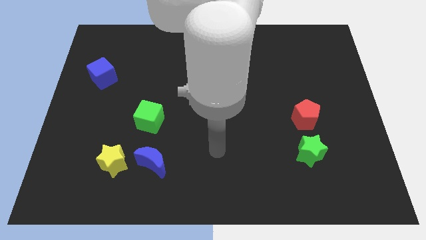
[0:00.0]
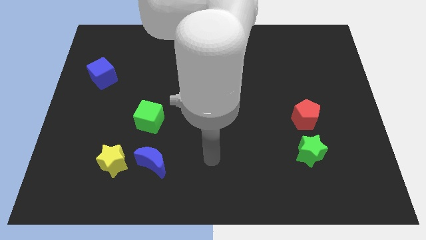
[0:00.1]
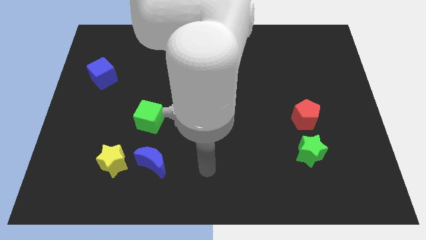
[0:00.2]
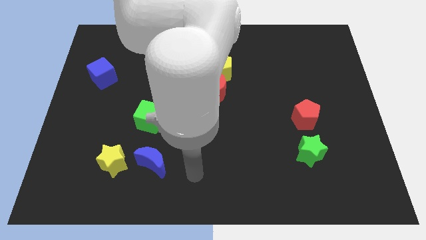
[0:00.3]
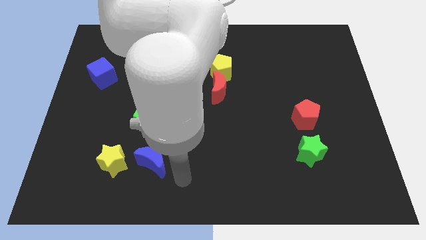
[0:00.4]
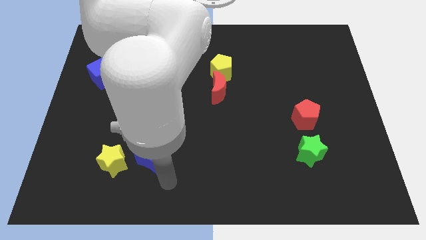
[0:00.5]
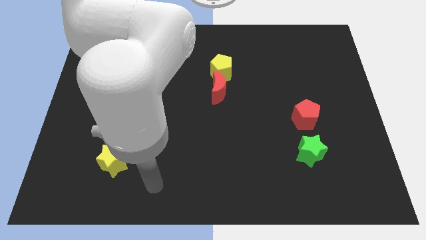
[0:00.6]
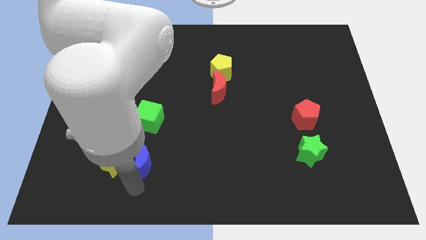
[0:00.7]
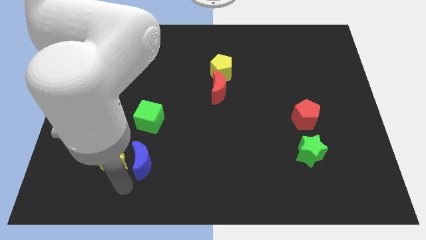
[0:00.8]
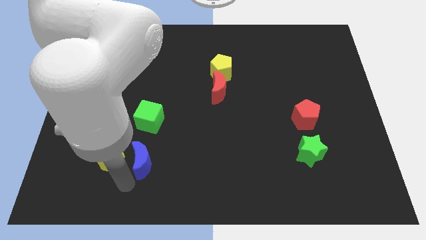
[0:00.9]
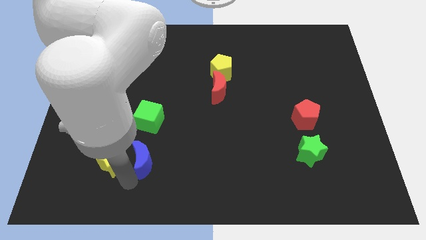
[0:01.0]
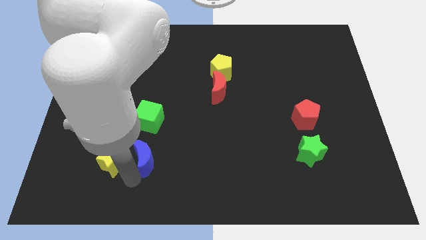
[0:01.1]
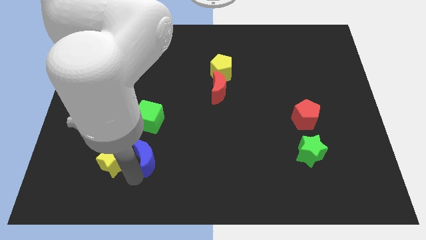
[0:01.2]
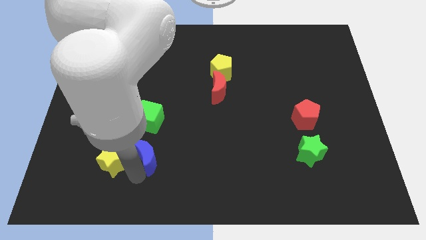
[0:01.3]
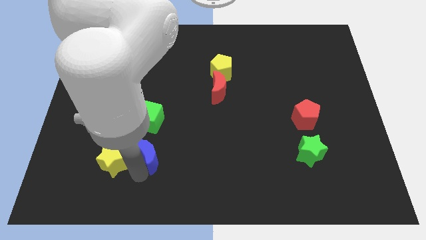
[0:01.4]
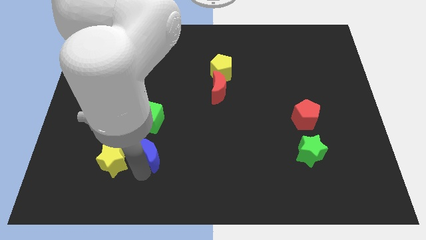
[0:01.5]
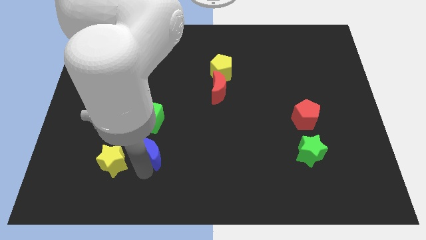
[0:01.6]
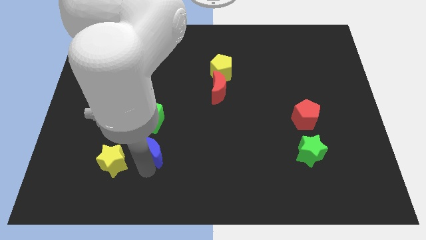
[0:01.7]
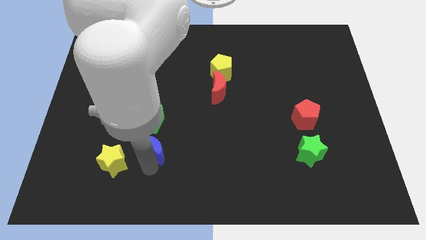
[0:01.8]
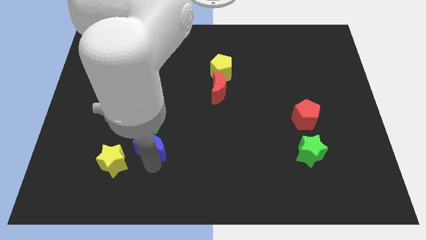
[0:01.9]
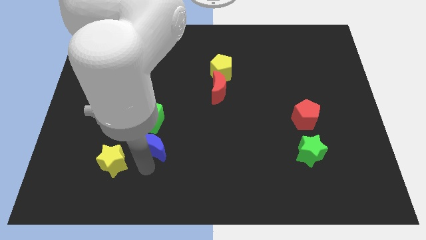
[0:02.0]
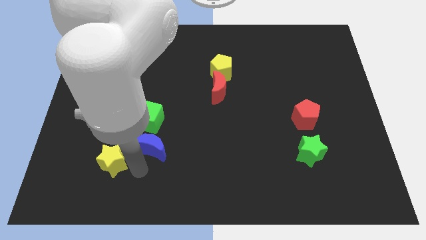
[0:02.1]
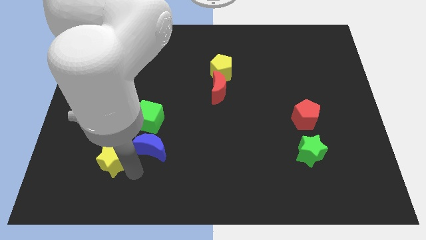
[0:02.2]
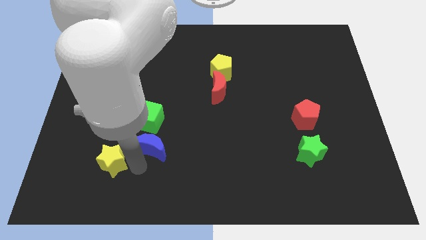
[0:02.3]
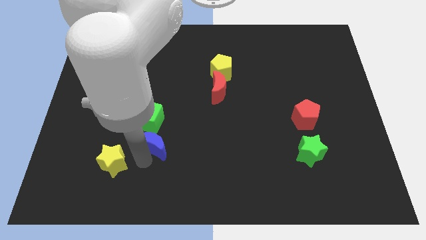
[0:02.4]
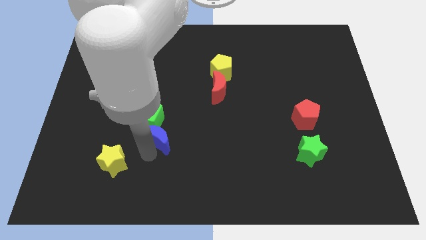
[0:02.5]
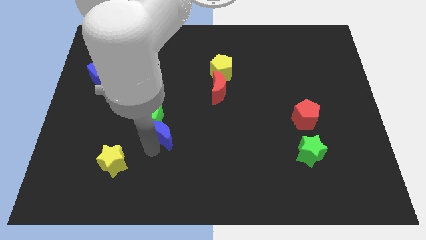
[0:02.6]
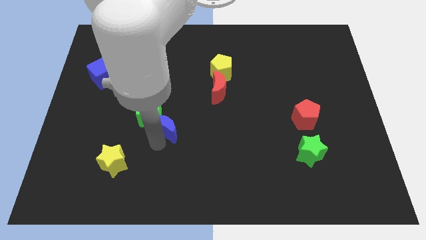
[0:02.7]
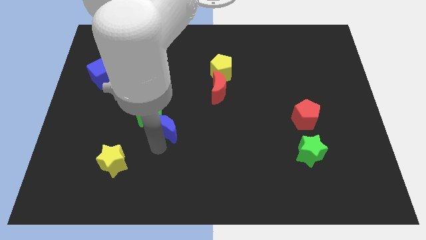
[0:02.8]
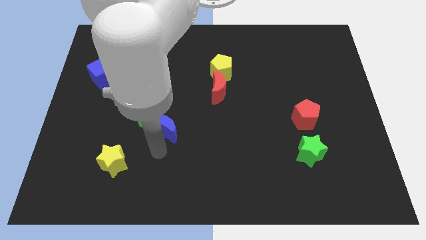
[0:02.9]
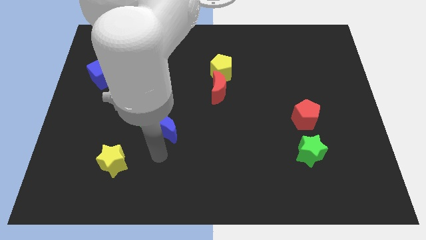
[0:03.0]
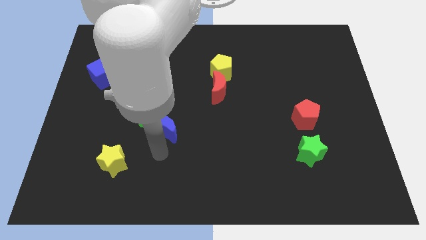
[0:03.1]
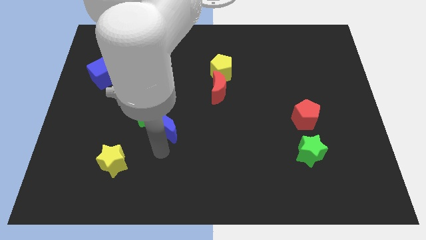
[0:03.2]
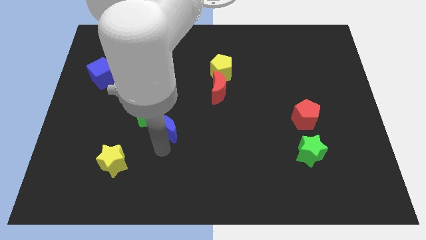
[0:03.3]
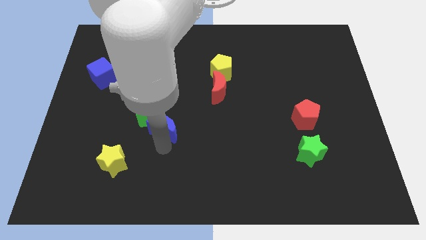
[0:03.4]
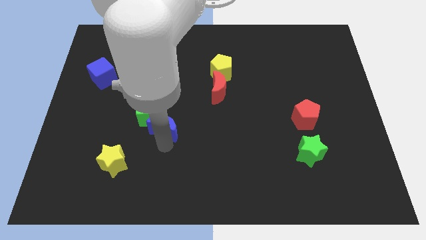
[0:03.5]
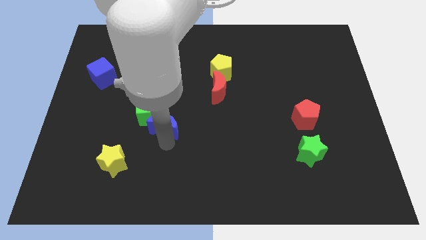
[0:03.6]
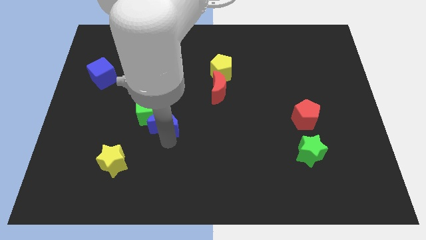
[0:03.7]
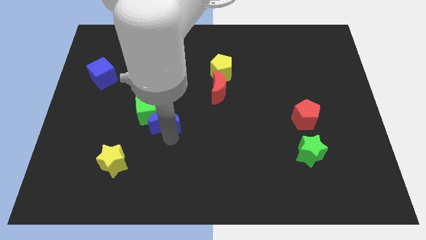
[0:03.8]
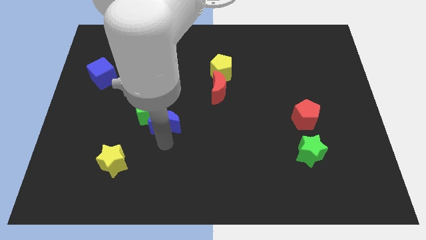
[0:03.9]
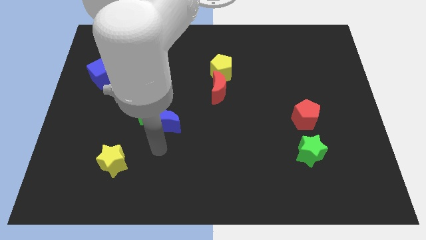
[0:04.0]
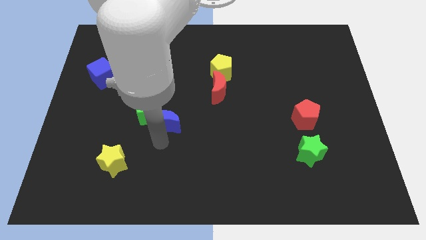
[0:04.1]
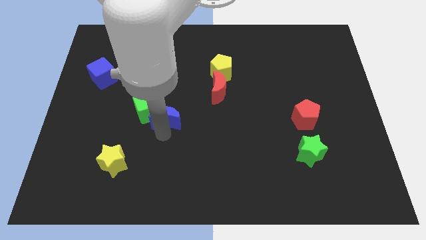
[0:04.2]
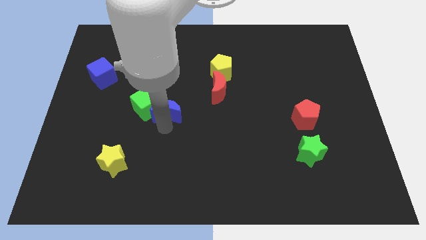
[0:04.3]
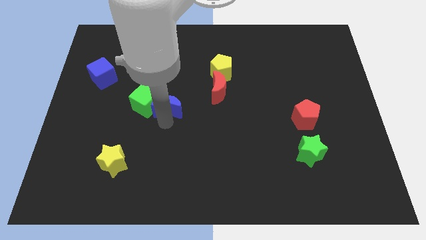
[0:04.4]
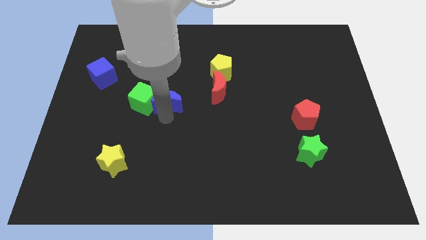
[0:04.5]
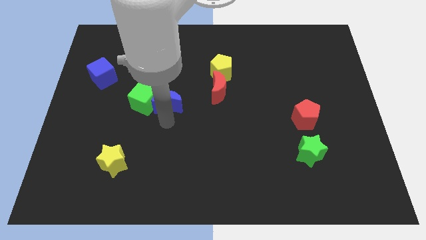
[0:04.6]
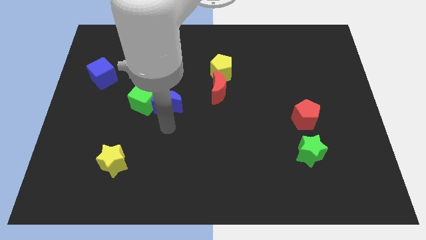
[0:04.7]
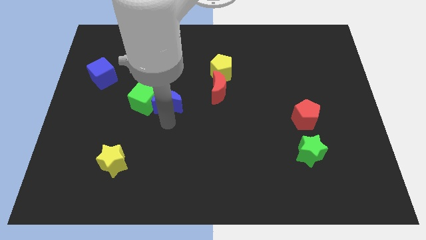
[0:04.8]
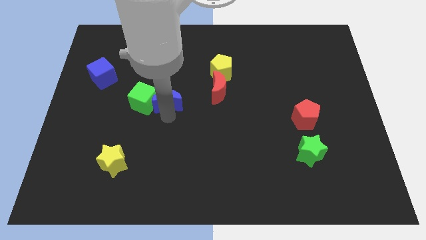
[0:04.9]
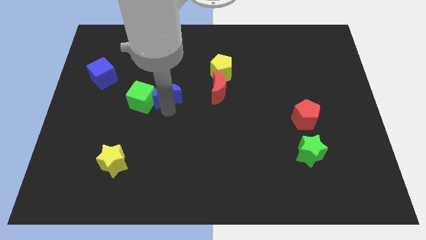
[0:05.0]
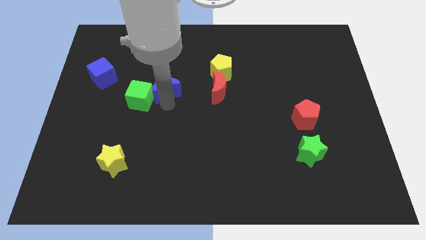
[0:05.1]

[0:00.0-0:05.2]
move the blue moon up

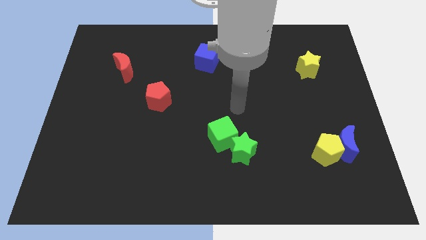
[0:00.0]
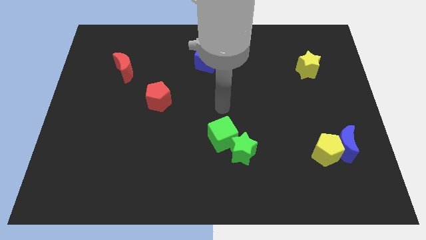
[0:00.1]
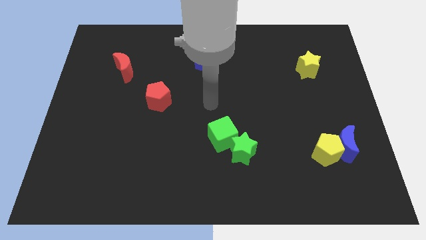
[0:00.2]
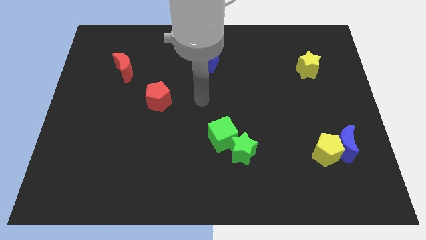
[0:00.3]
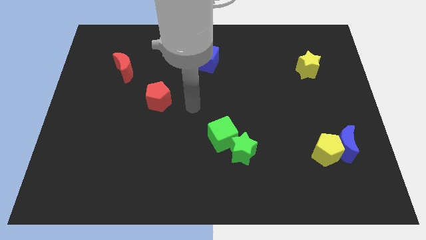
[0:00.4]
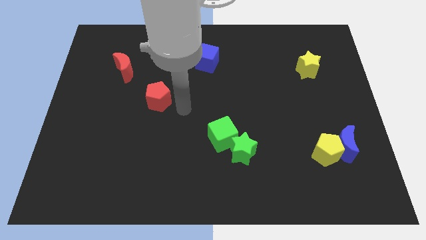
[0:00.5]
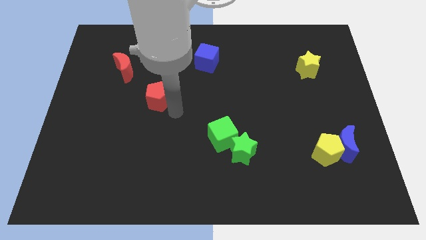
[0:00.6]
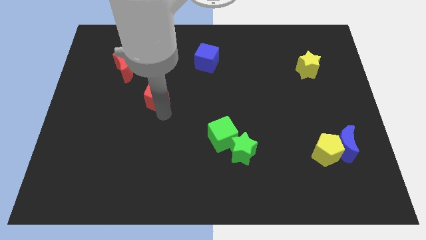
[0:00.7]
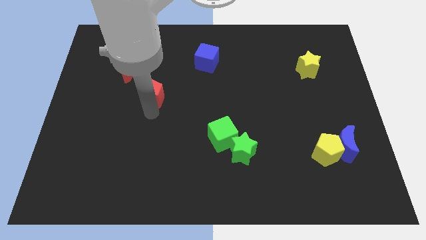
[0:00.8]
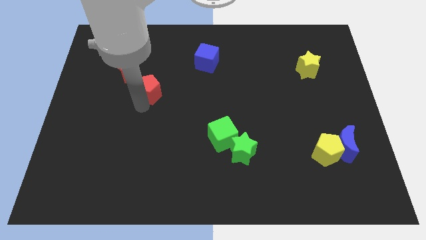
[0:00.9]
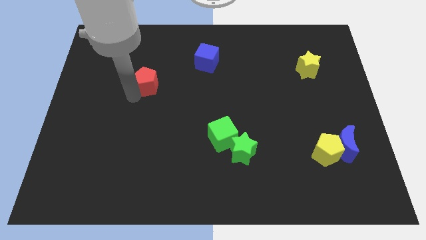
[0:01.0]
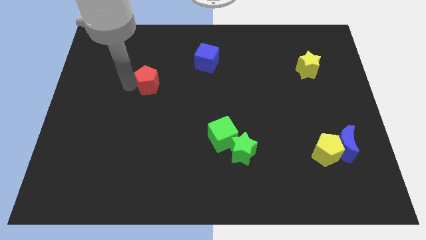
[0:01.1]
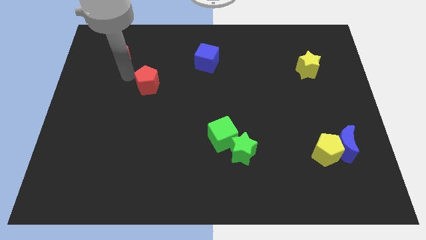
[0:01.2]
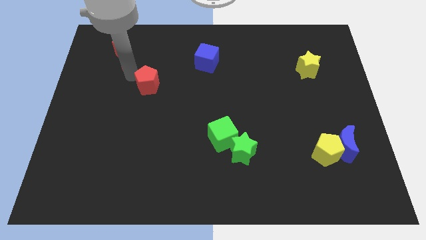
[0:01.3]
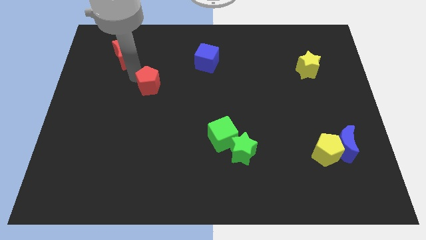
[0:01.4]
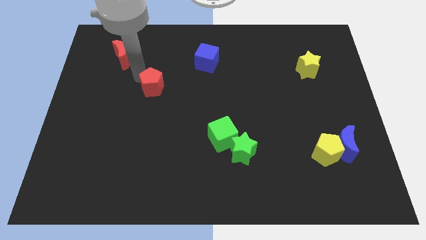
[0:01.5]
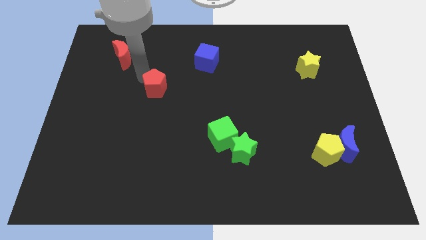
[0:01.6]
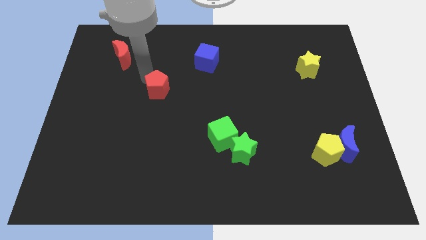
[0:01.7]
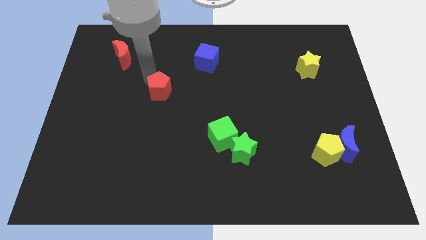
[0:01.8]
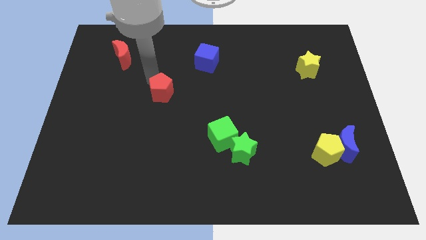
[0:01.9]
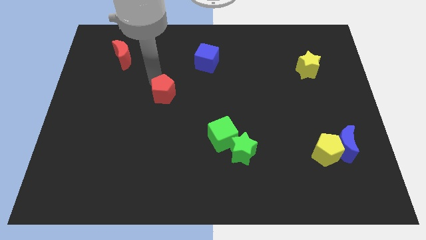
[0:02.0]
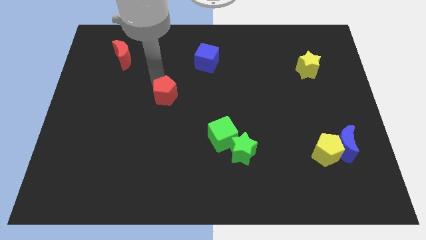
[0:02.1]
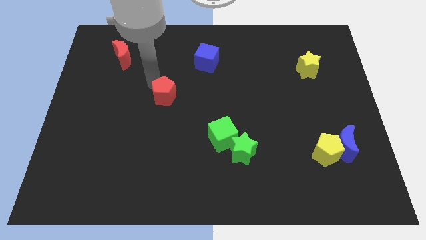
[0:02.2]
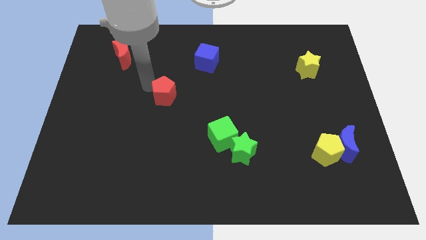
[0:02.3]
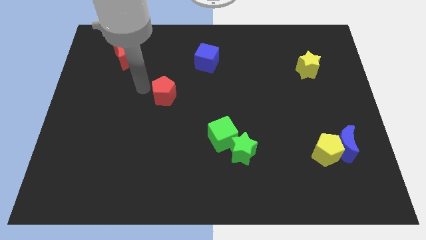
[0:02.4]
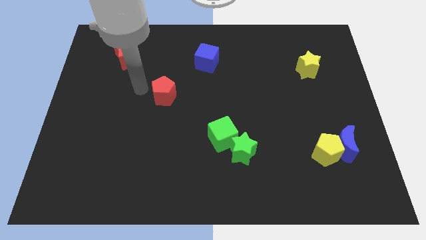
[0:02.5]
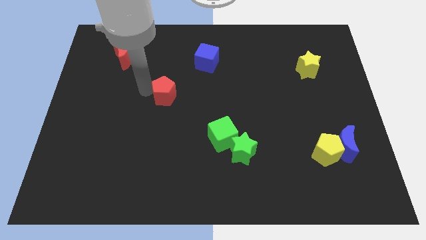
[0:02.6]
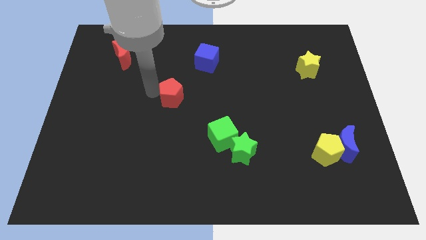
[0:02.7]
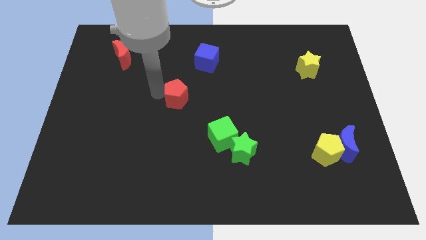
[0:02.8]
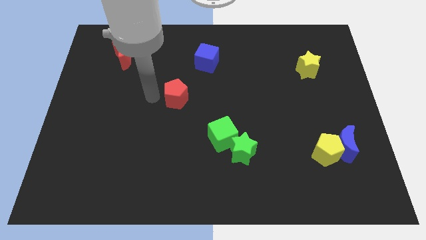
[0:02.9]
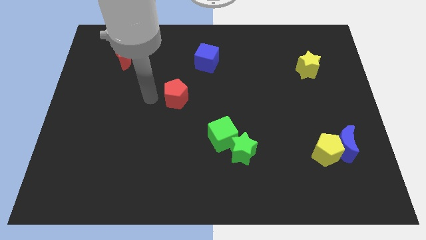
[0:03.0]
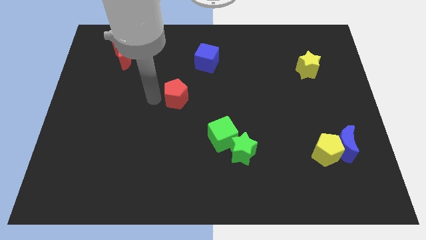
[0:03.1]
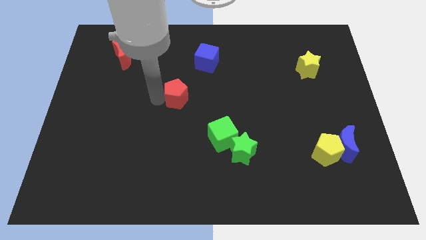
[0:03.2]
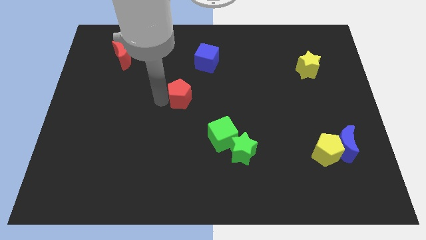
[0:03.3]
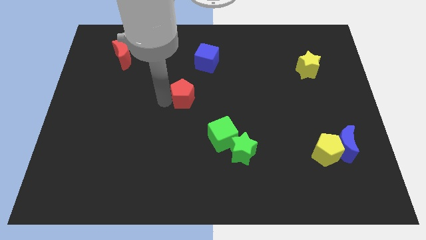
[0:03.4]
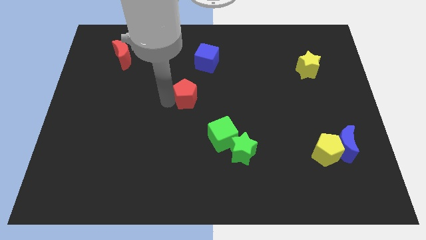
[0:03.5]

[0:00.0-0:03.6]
slightly move the red pentagon right
